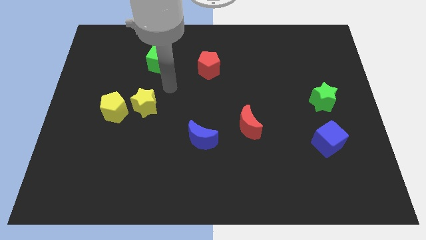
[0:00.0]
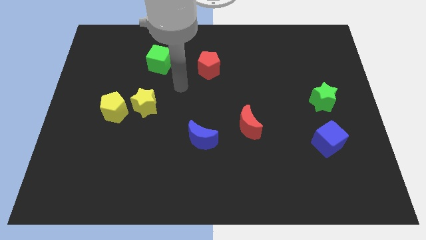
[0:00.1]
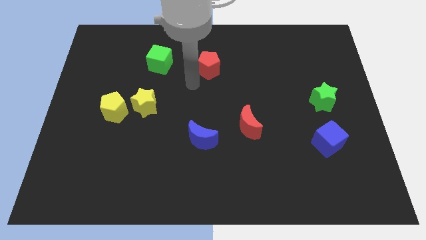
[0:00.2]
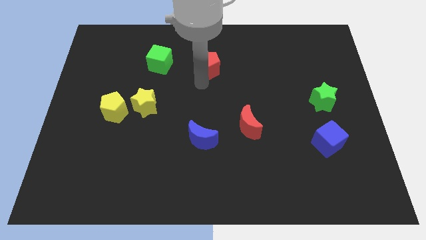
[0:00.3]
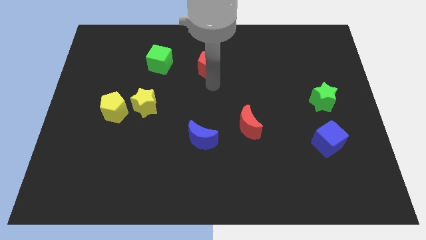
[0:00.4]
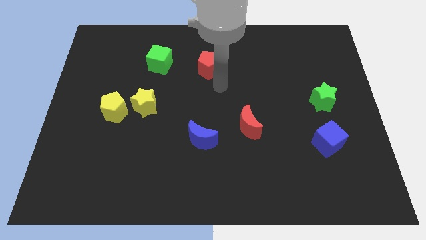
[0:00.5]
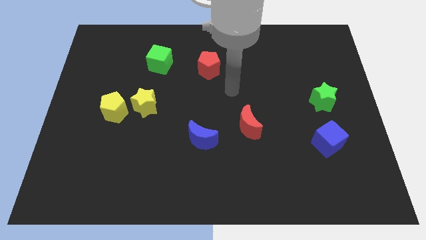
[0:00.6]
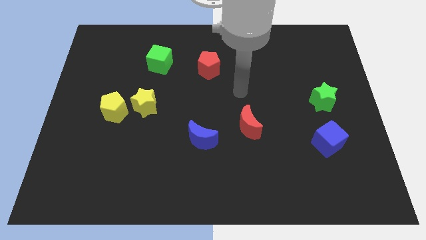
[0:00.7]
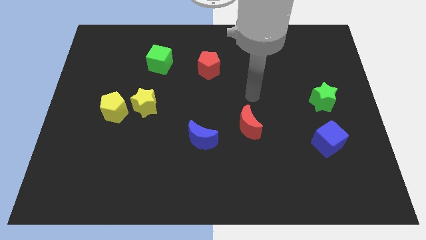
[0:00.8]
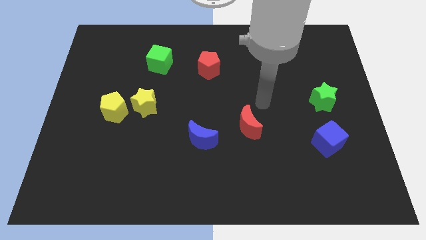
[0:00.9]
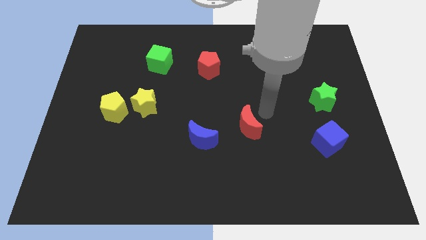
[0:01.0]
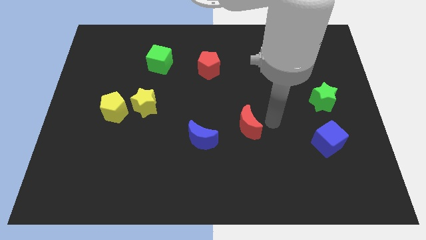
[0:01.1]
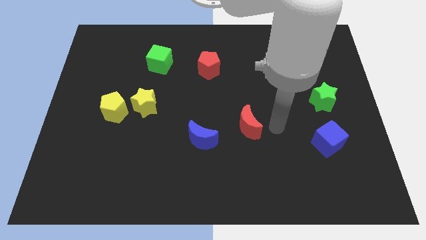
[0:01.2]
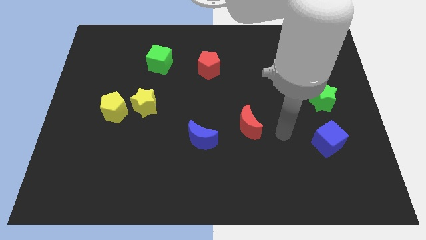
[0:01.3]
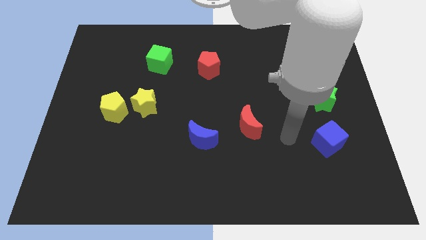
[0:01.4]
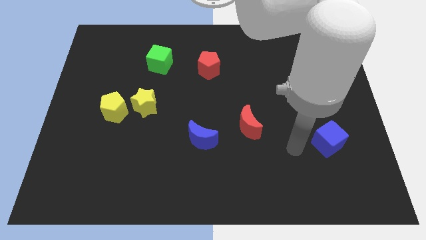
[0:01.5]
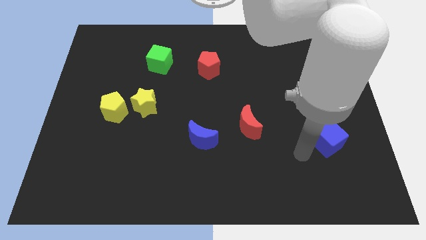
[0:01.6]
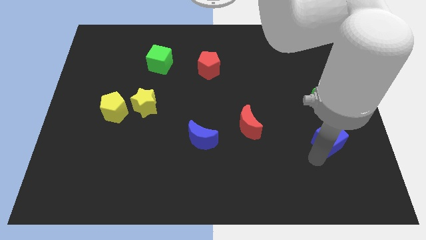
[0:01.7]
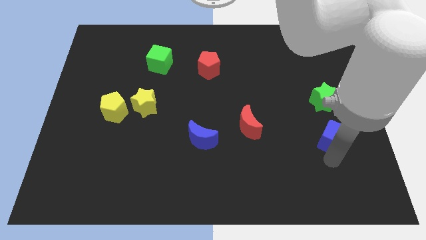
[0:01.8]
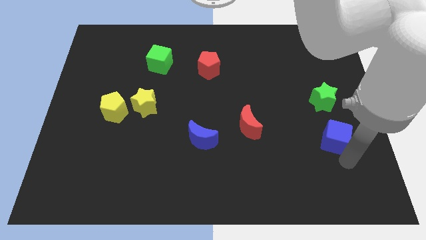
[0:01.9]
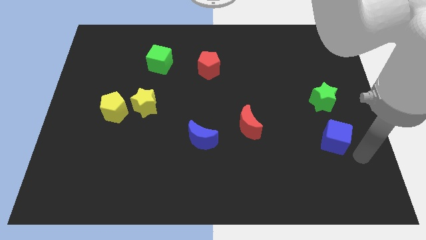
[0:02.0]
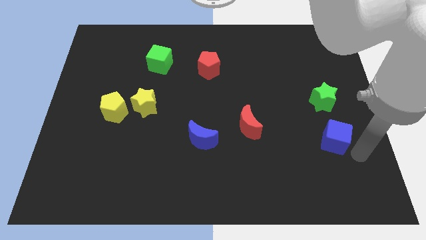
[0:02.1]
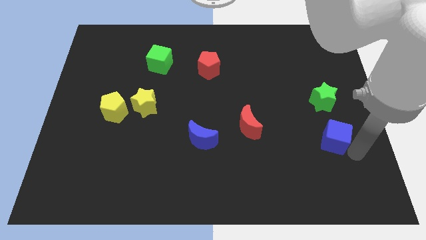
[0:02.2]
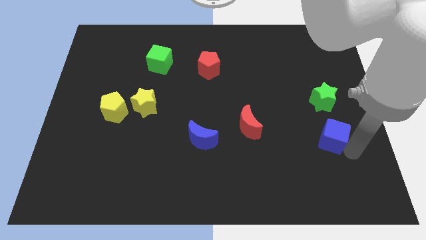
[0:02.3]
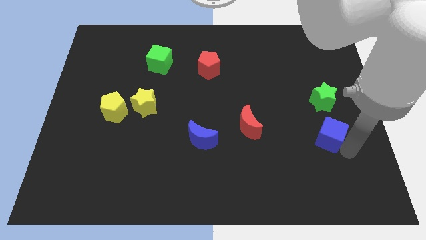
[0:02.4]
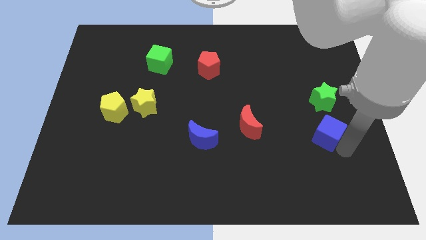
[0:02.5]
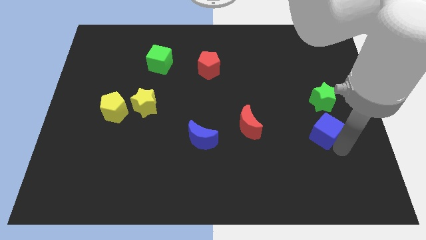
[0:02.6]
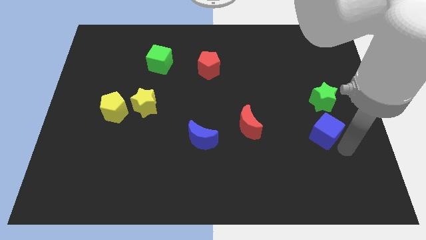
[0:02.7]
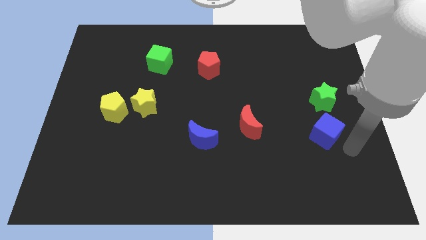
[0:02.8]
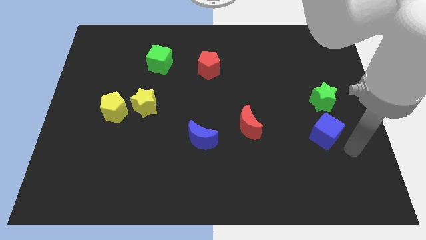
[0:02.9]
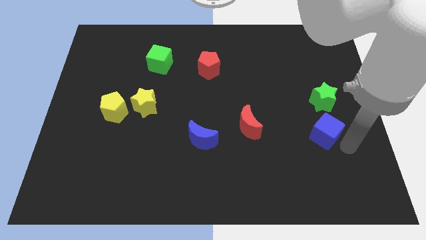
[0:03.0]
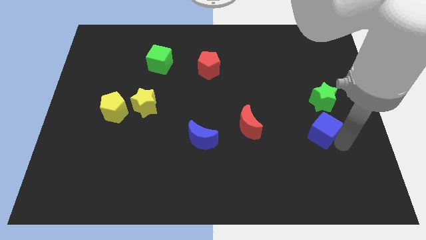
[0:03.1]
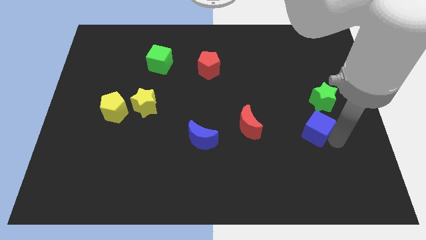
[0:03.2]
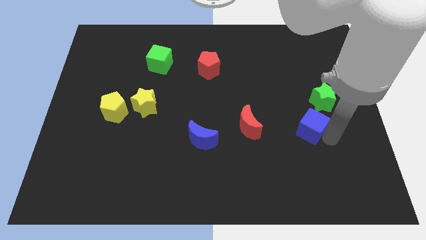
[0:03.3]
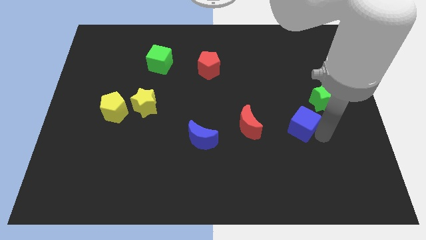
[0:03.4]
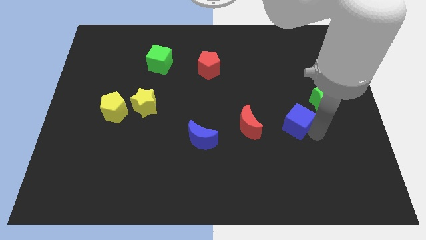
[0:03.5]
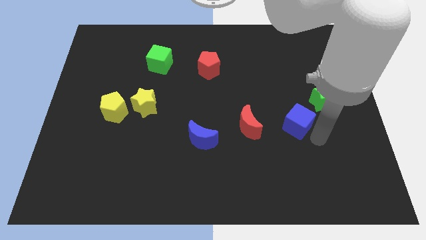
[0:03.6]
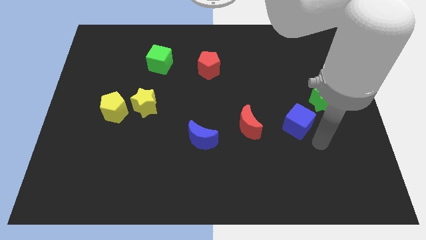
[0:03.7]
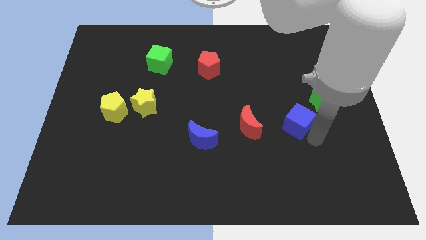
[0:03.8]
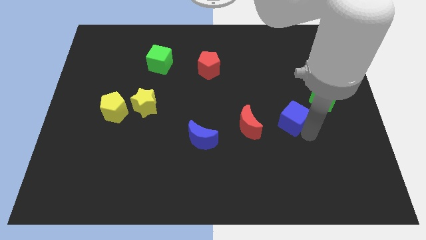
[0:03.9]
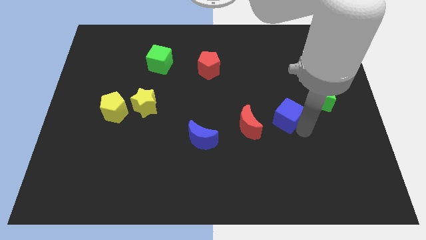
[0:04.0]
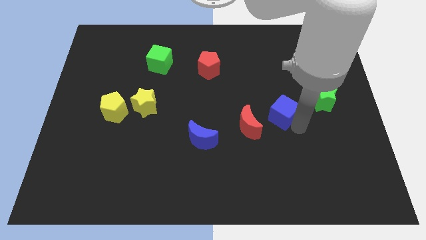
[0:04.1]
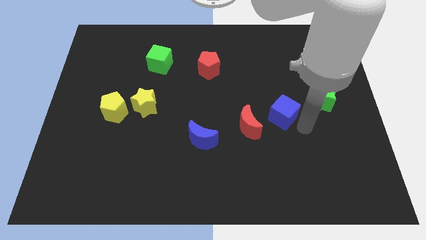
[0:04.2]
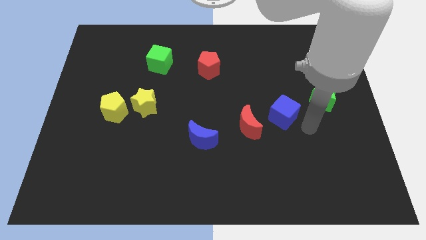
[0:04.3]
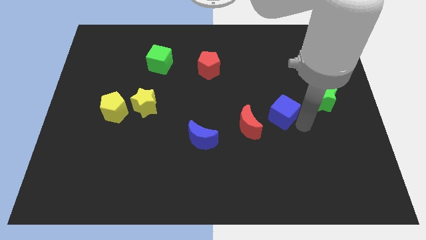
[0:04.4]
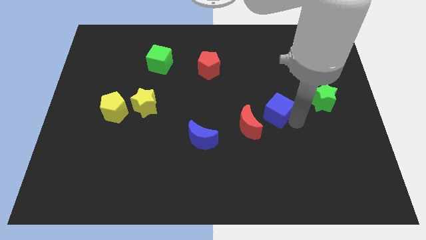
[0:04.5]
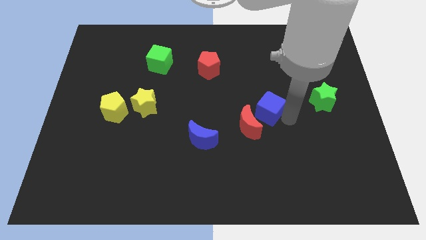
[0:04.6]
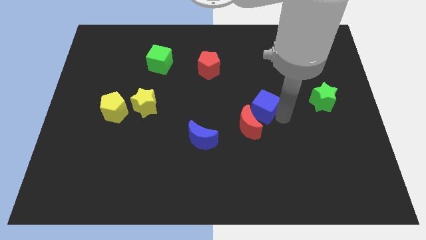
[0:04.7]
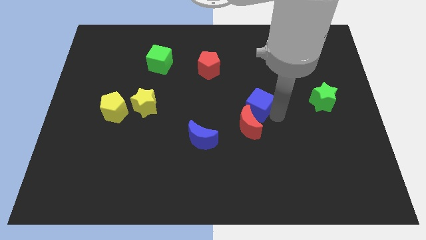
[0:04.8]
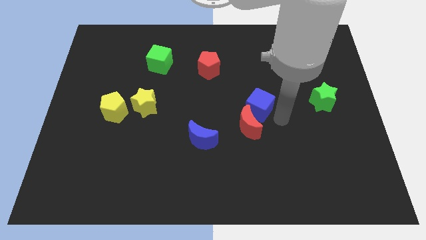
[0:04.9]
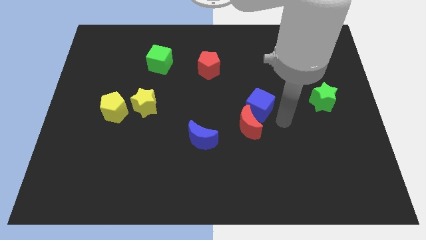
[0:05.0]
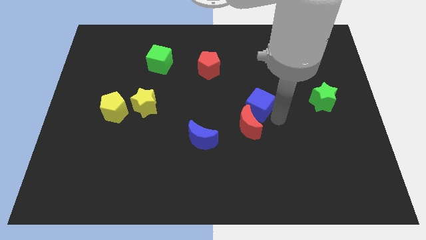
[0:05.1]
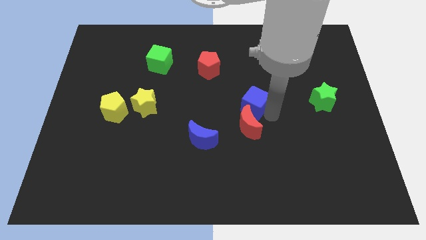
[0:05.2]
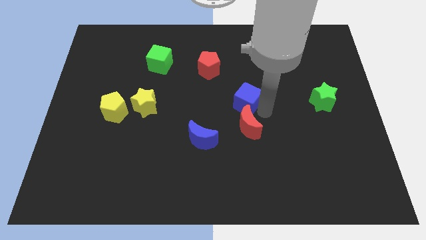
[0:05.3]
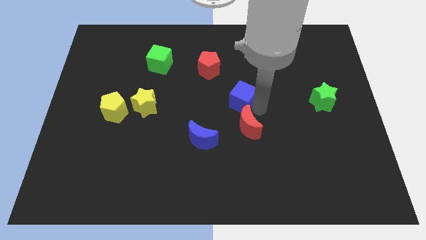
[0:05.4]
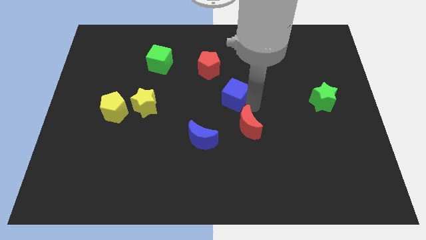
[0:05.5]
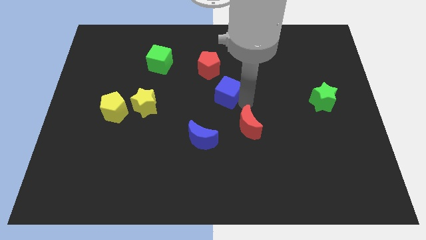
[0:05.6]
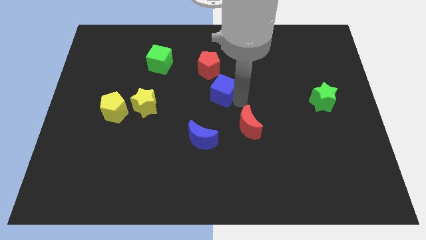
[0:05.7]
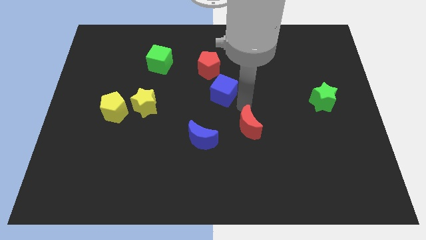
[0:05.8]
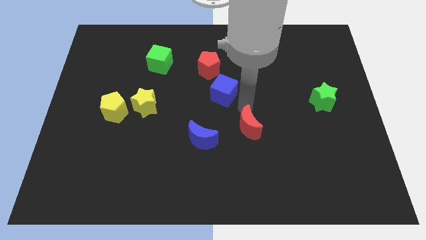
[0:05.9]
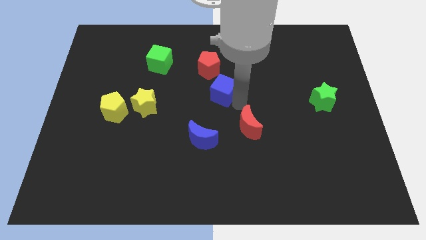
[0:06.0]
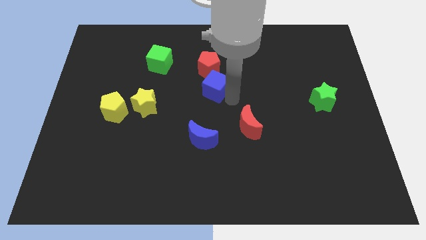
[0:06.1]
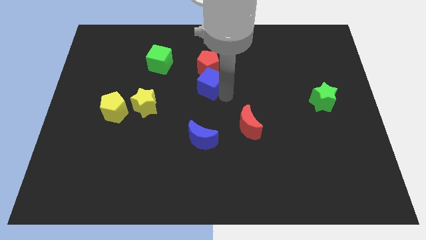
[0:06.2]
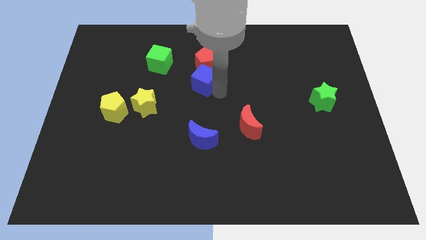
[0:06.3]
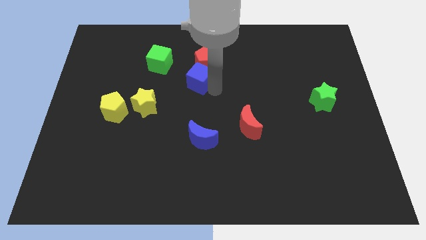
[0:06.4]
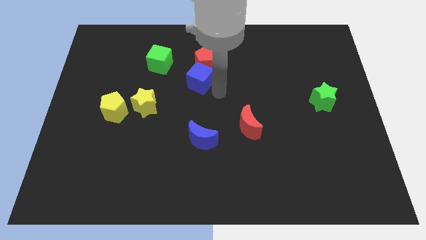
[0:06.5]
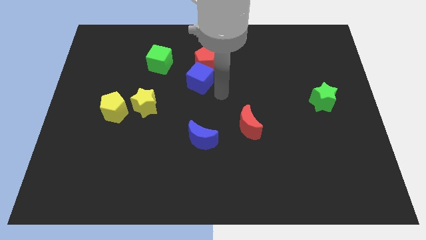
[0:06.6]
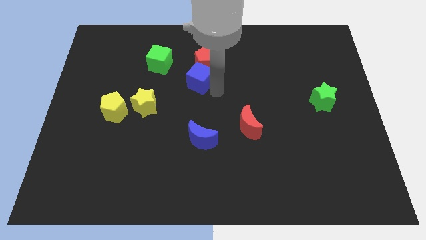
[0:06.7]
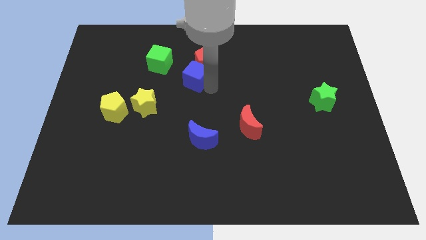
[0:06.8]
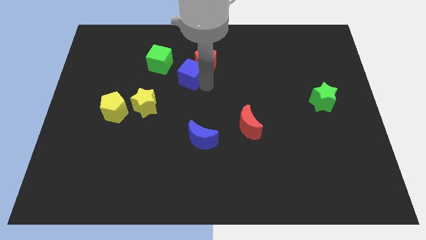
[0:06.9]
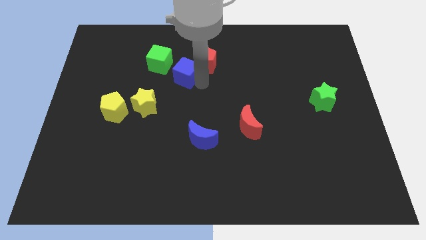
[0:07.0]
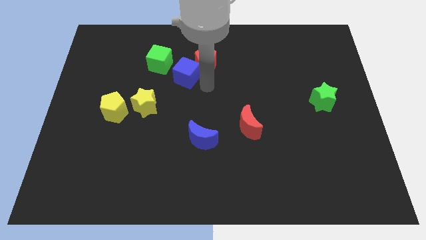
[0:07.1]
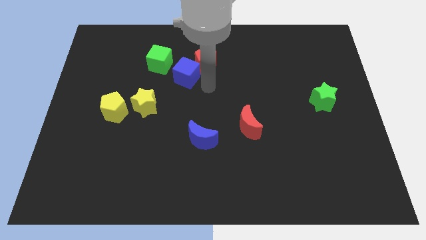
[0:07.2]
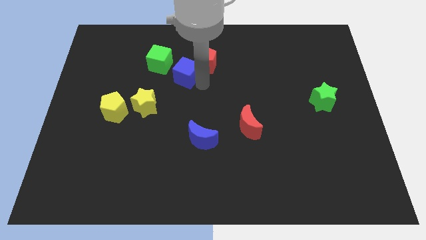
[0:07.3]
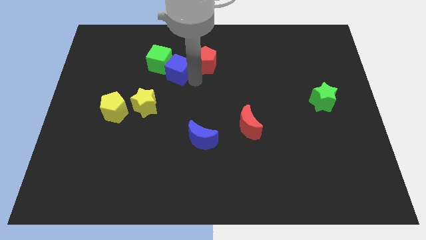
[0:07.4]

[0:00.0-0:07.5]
push the blue cube to the green cube
